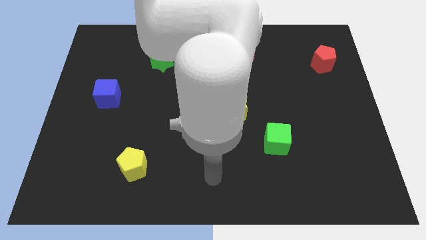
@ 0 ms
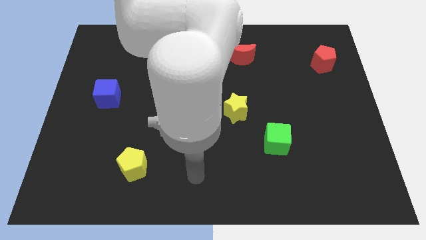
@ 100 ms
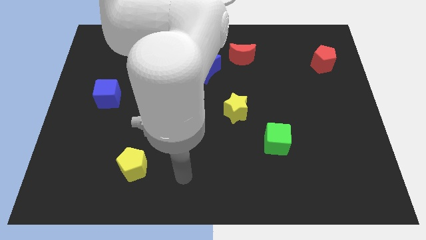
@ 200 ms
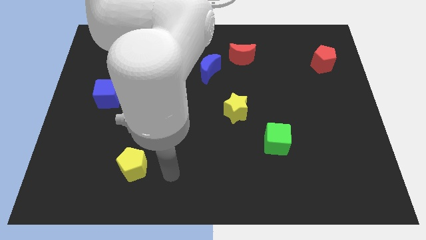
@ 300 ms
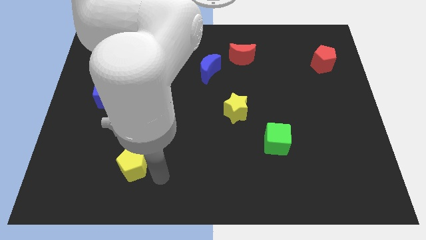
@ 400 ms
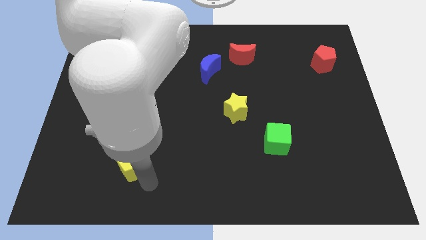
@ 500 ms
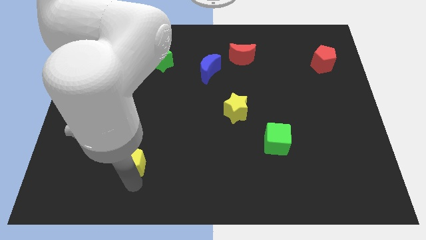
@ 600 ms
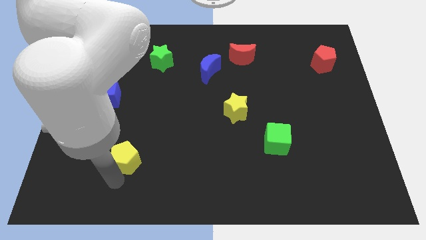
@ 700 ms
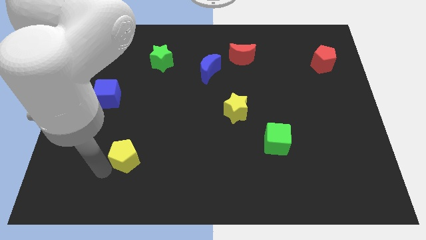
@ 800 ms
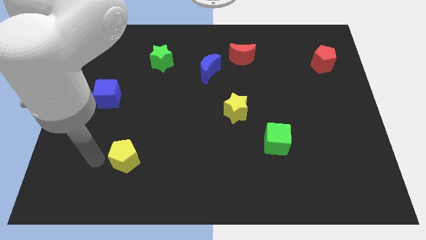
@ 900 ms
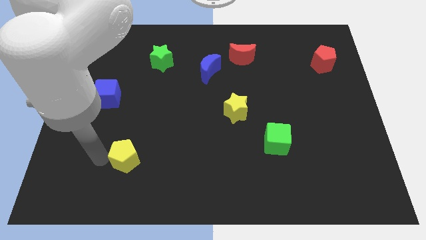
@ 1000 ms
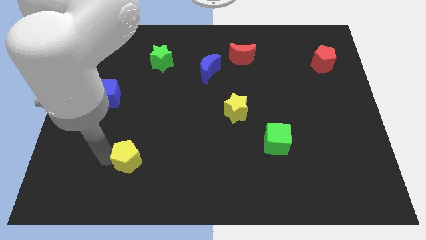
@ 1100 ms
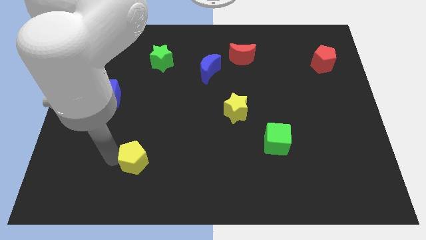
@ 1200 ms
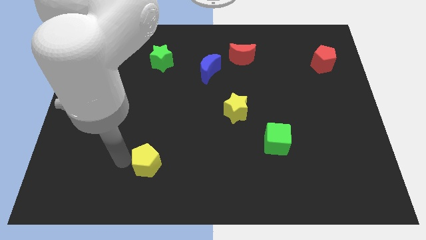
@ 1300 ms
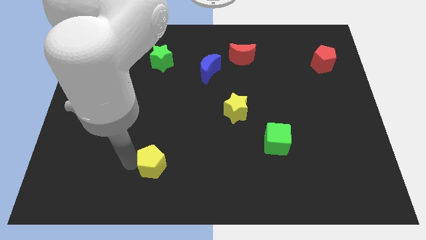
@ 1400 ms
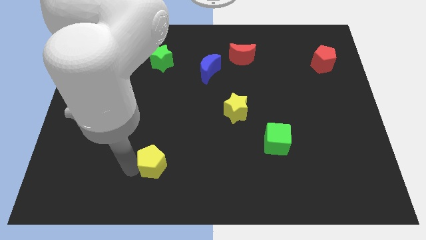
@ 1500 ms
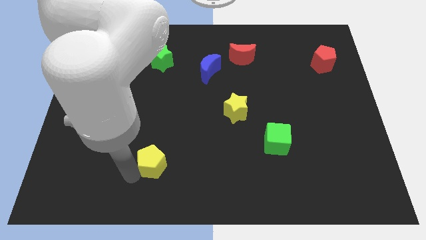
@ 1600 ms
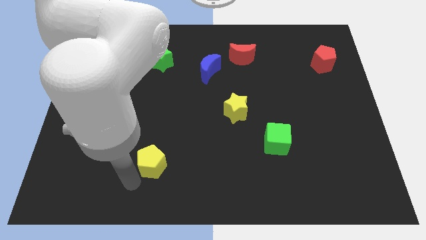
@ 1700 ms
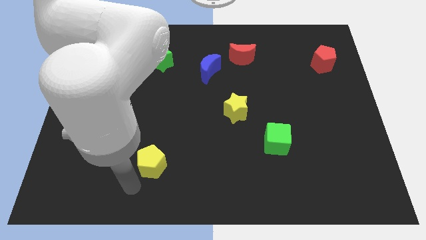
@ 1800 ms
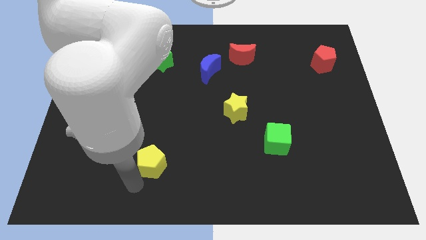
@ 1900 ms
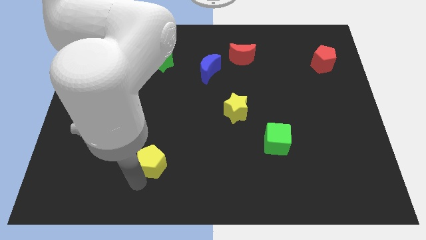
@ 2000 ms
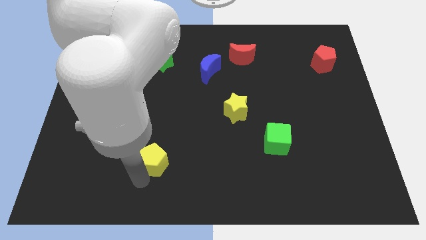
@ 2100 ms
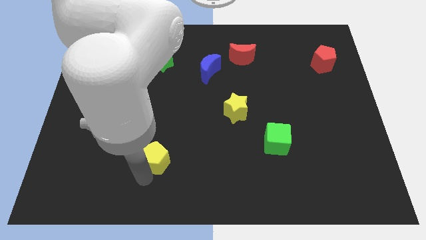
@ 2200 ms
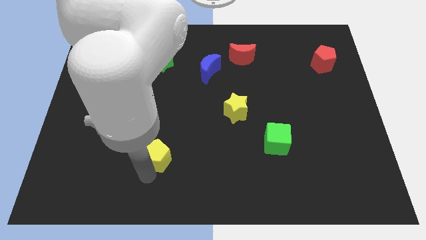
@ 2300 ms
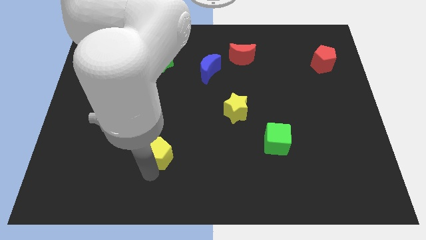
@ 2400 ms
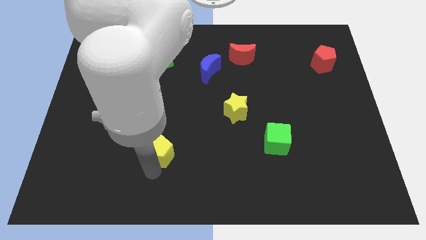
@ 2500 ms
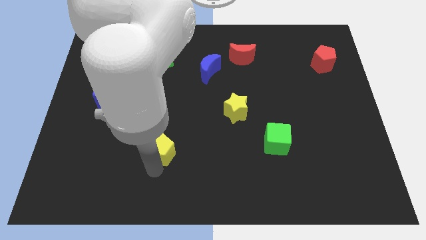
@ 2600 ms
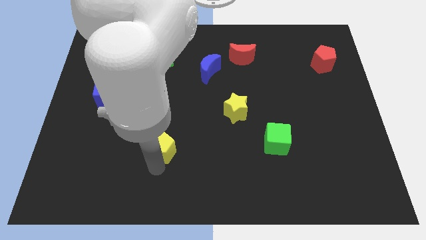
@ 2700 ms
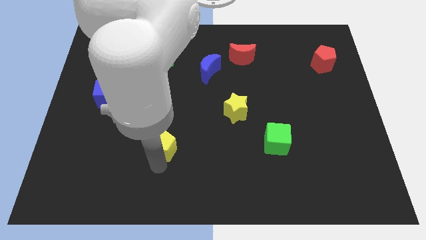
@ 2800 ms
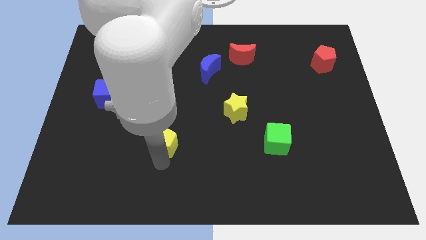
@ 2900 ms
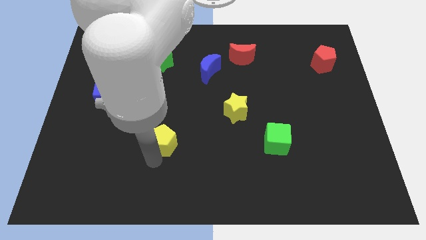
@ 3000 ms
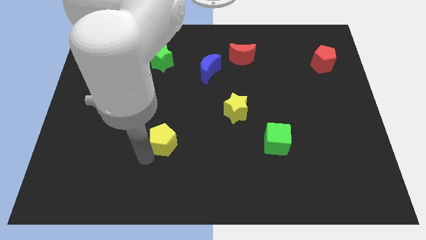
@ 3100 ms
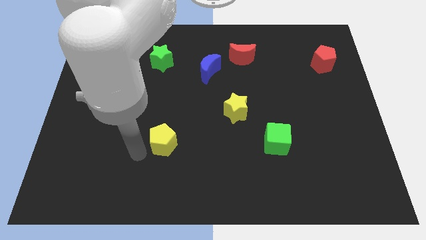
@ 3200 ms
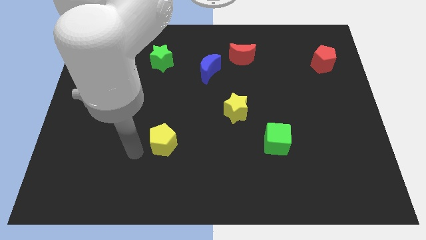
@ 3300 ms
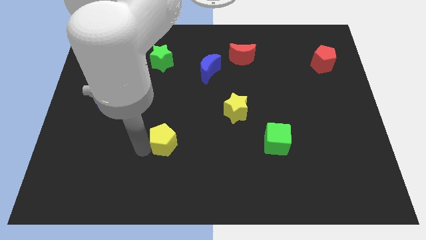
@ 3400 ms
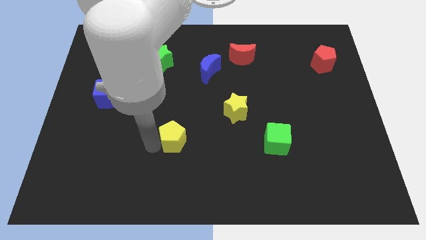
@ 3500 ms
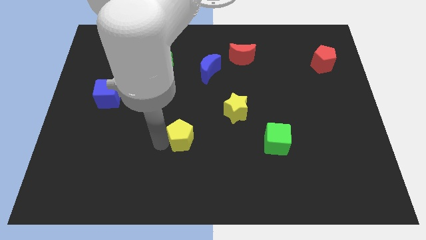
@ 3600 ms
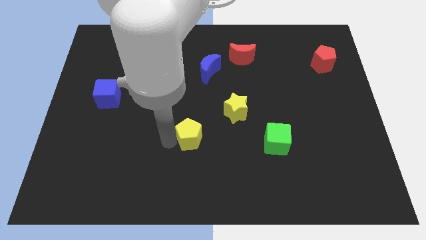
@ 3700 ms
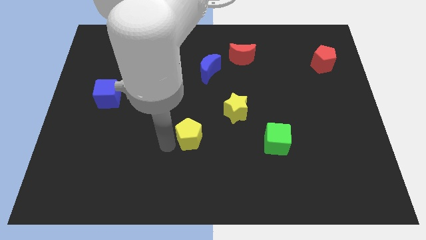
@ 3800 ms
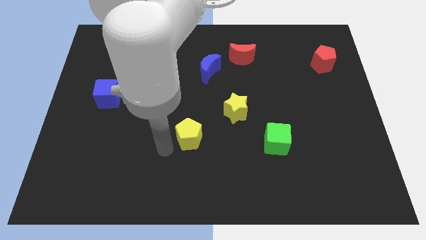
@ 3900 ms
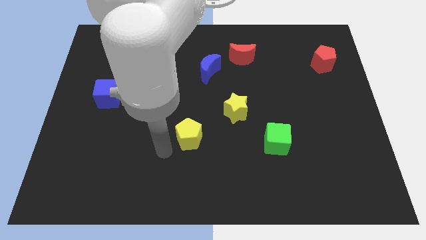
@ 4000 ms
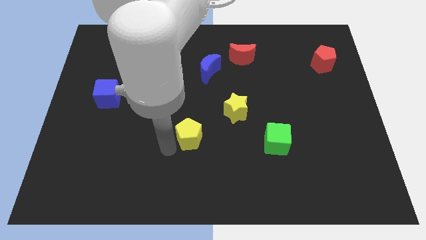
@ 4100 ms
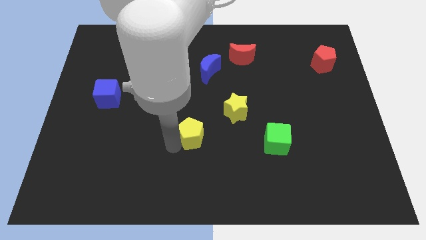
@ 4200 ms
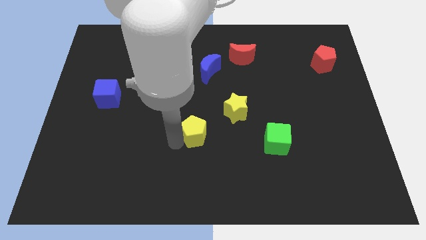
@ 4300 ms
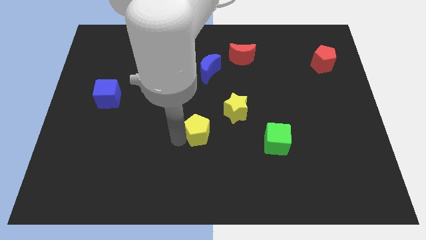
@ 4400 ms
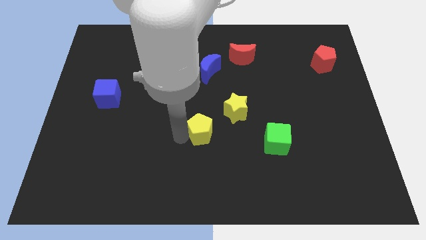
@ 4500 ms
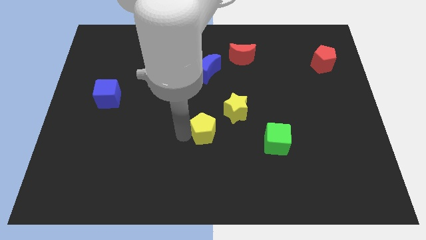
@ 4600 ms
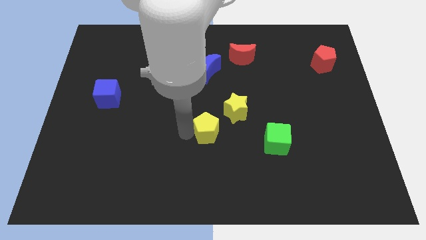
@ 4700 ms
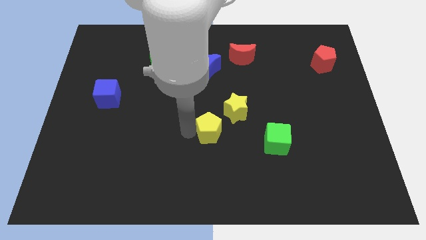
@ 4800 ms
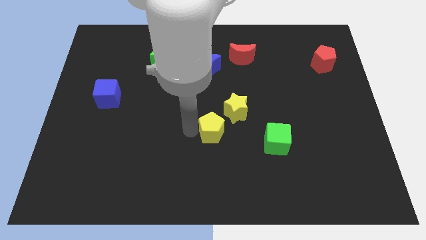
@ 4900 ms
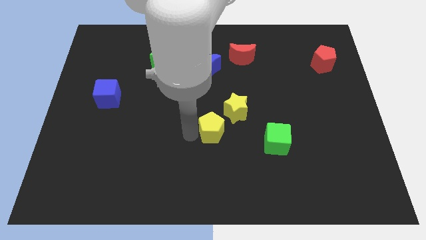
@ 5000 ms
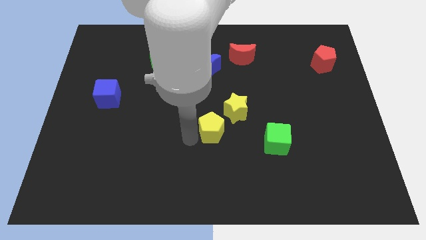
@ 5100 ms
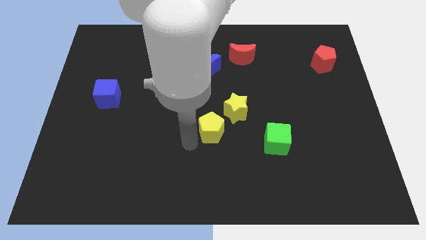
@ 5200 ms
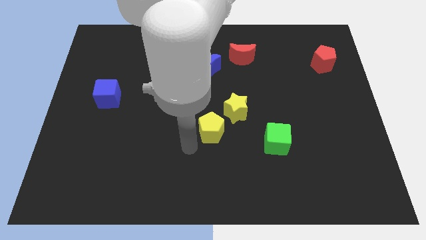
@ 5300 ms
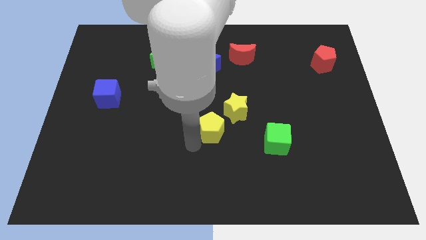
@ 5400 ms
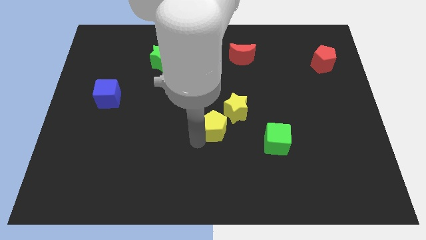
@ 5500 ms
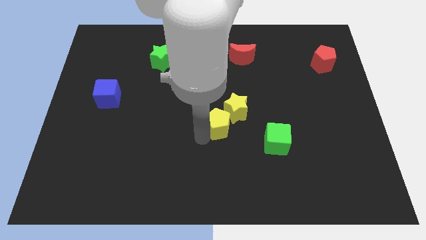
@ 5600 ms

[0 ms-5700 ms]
push the yellow pentagon next to the yellow star

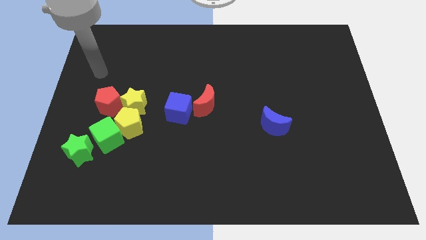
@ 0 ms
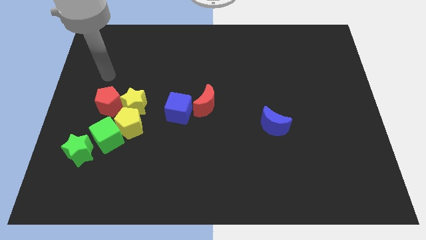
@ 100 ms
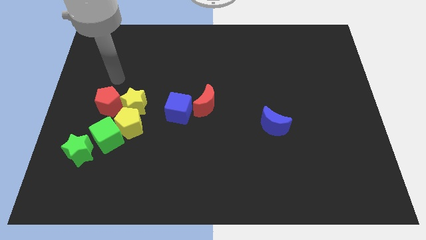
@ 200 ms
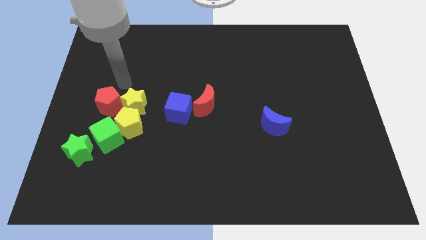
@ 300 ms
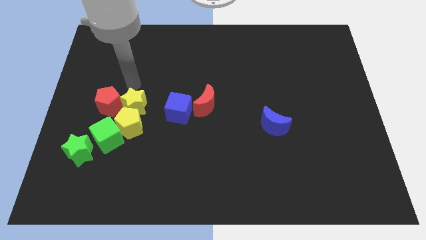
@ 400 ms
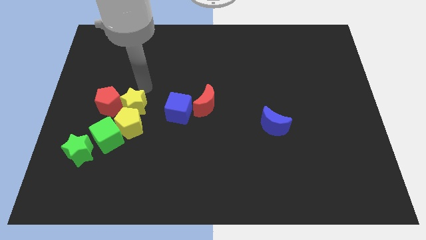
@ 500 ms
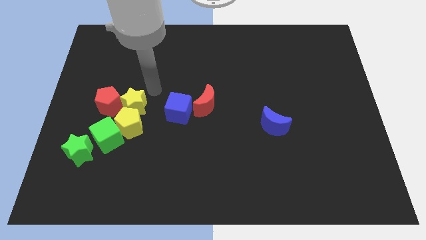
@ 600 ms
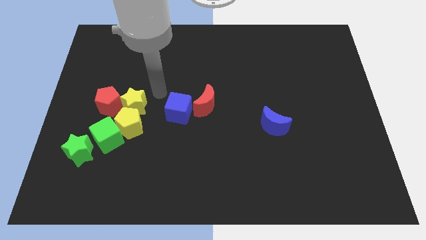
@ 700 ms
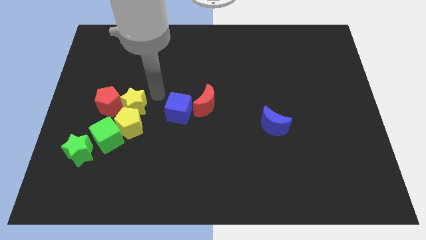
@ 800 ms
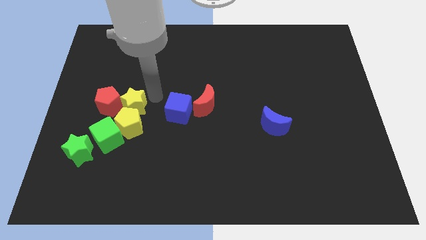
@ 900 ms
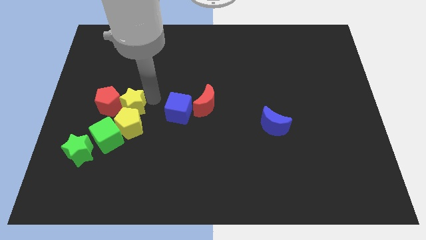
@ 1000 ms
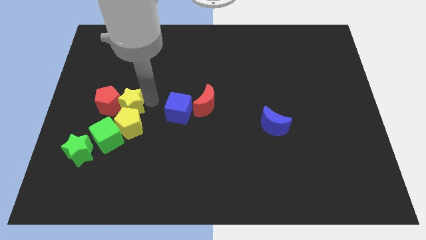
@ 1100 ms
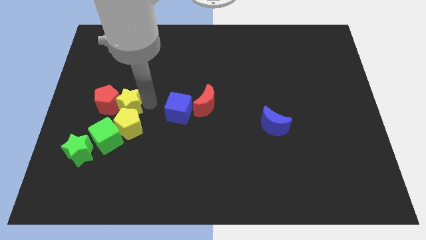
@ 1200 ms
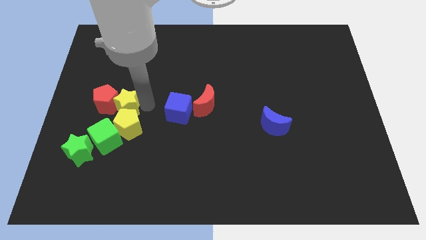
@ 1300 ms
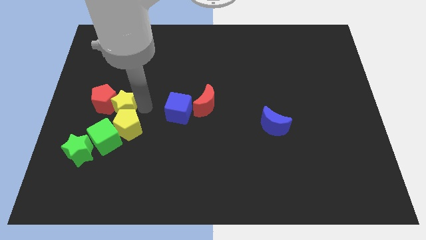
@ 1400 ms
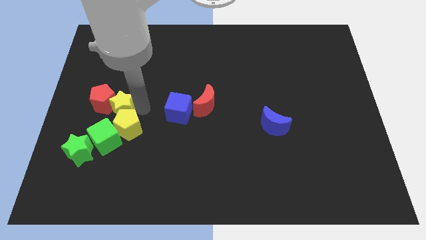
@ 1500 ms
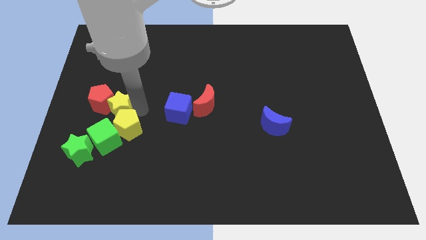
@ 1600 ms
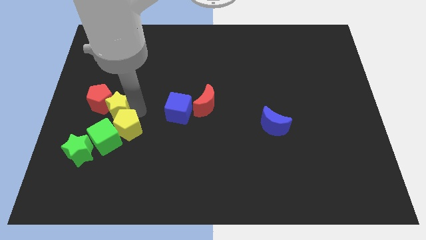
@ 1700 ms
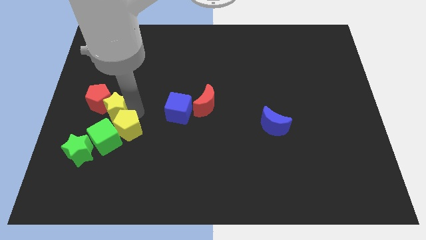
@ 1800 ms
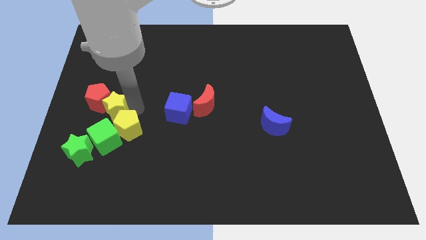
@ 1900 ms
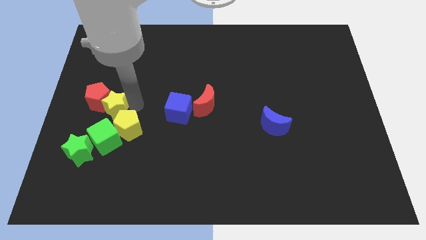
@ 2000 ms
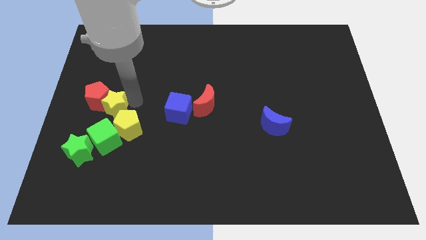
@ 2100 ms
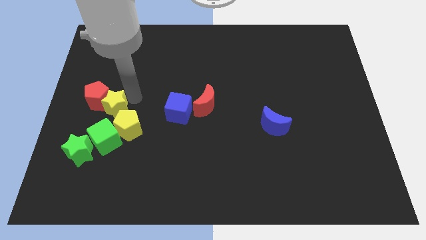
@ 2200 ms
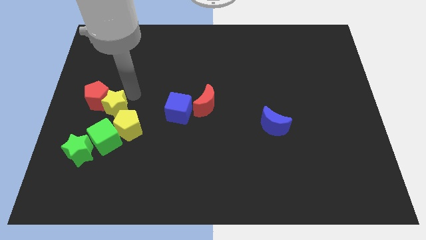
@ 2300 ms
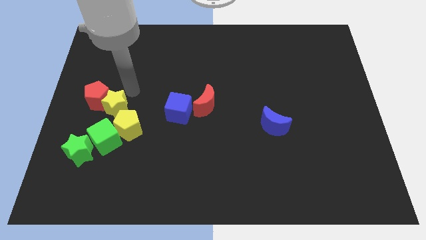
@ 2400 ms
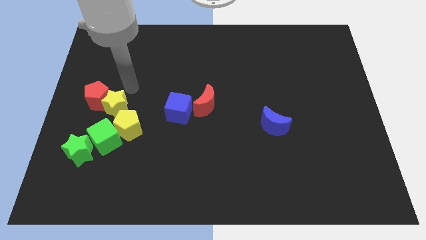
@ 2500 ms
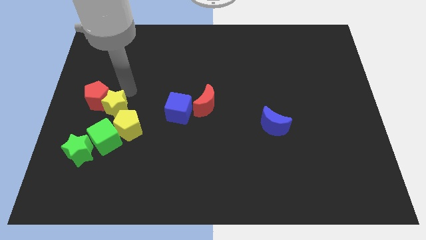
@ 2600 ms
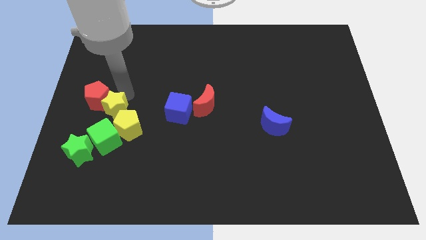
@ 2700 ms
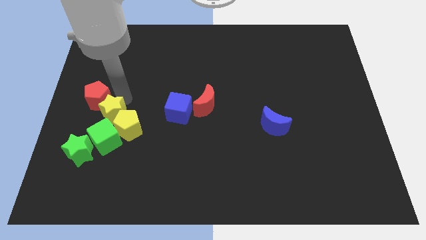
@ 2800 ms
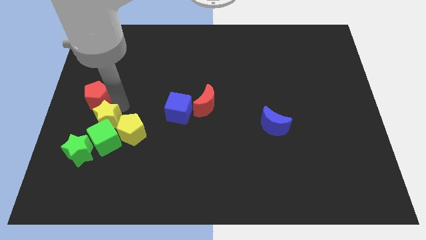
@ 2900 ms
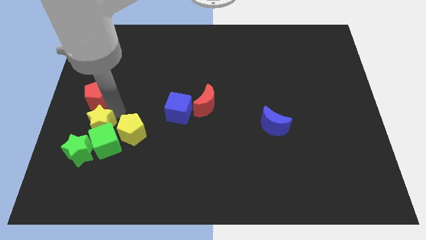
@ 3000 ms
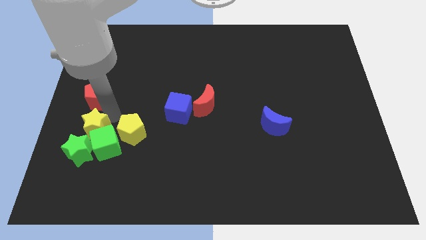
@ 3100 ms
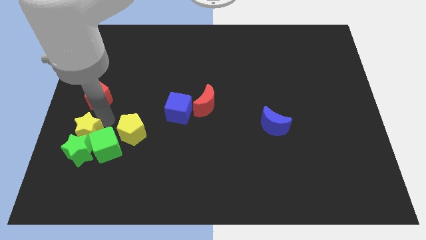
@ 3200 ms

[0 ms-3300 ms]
push the yellow star next to the green star
